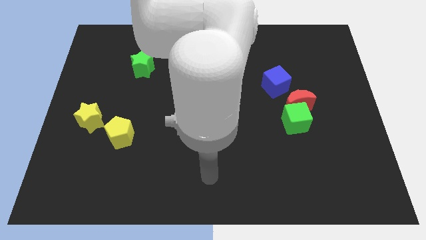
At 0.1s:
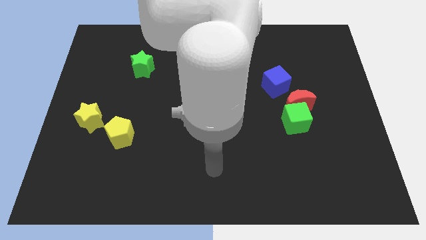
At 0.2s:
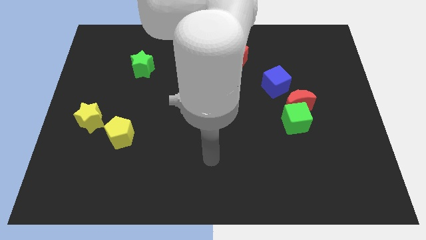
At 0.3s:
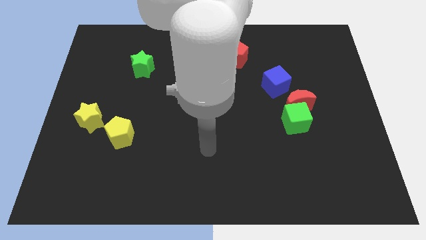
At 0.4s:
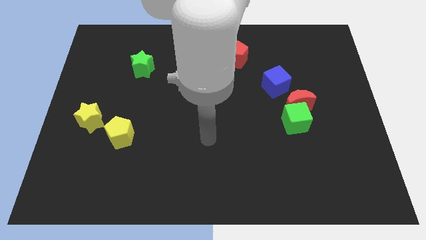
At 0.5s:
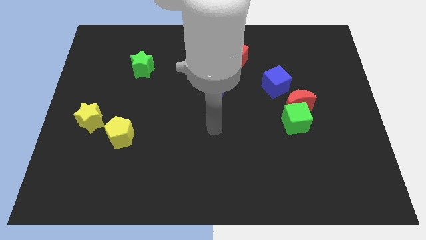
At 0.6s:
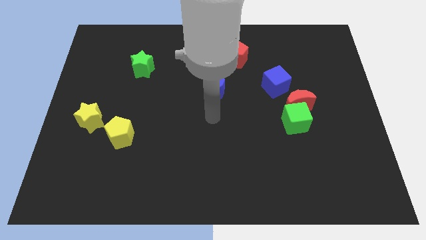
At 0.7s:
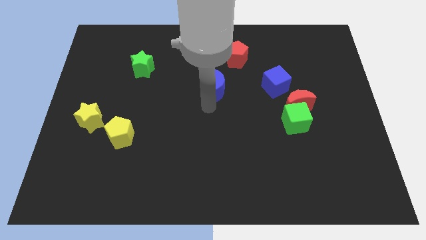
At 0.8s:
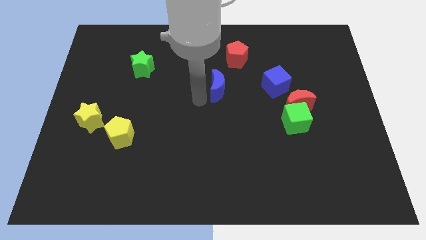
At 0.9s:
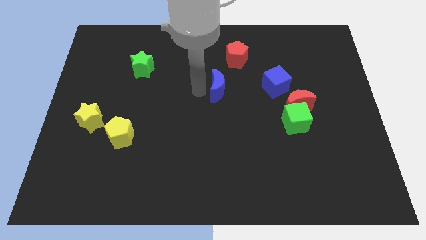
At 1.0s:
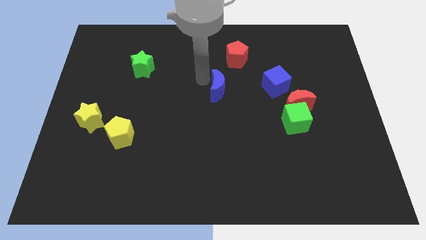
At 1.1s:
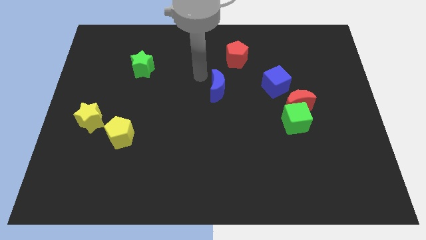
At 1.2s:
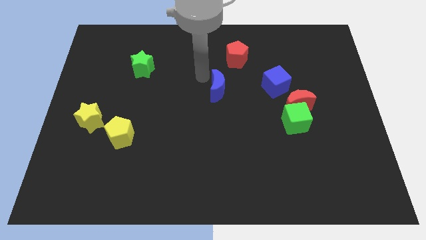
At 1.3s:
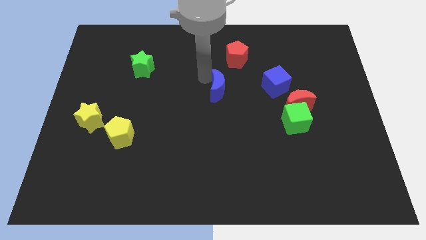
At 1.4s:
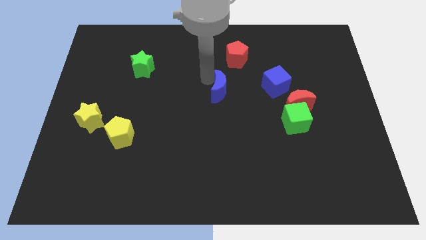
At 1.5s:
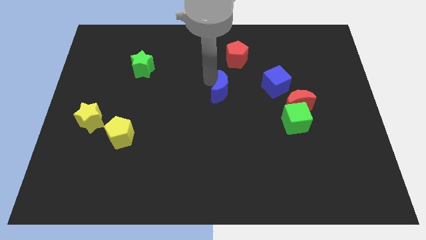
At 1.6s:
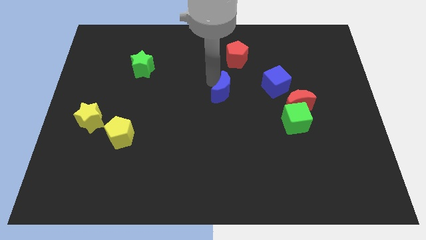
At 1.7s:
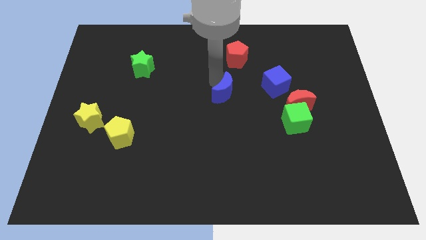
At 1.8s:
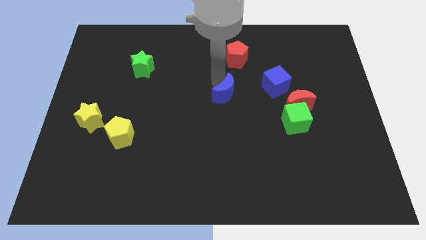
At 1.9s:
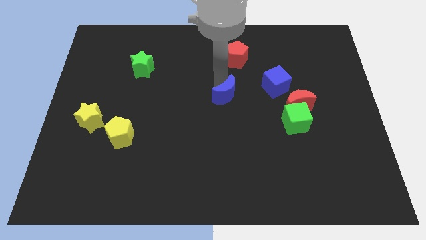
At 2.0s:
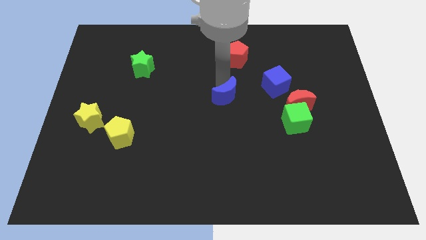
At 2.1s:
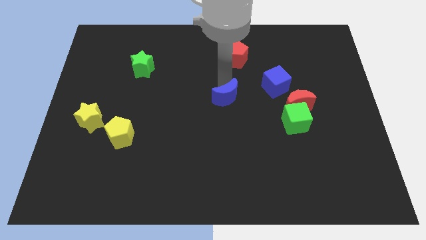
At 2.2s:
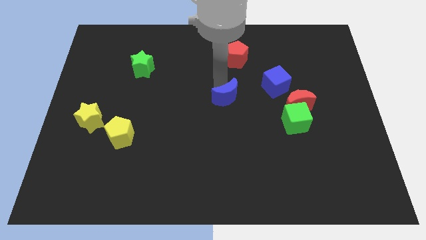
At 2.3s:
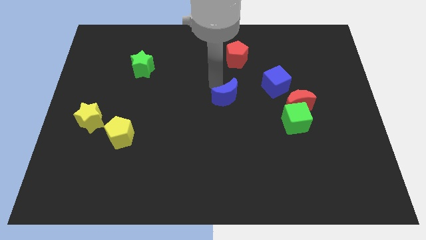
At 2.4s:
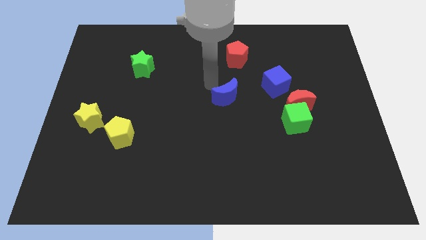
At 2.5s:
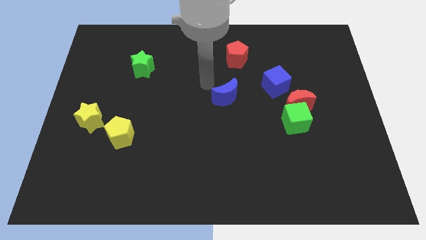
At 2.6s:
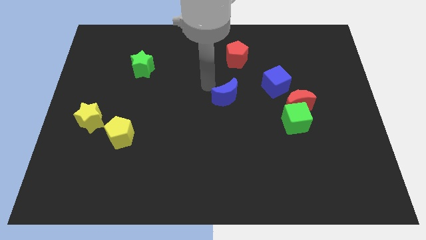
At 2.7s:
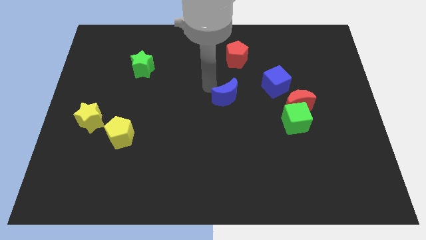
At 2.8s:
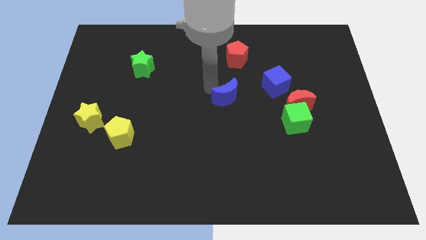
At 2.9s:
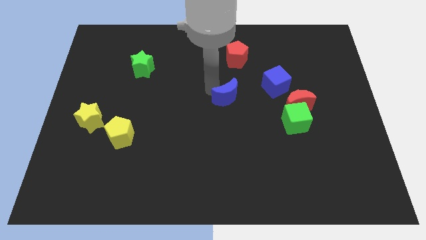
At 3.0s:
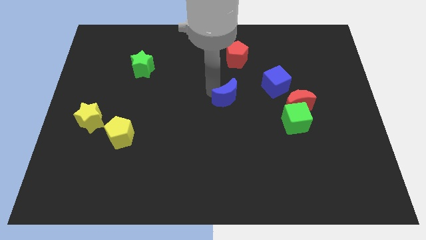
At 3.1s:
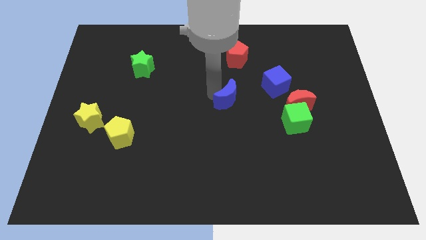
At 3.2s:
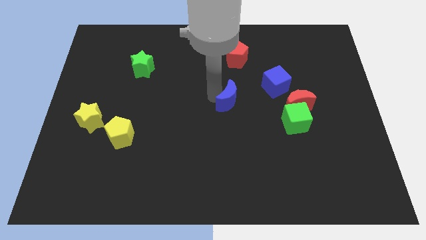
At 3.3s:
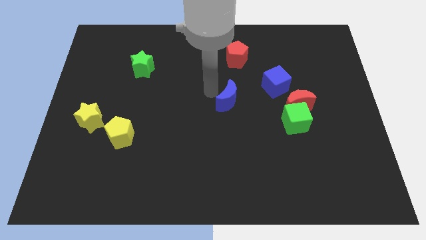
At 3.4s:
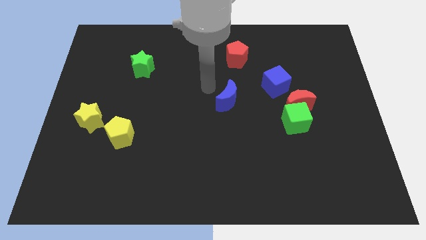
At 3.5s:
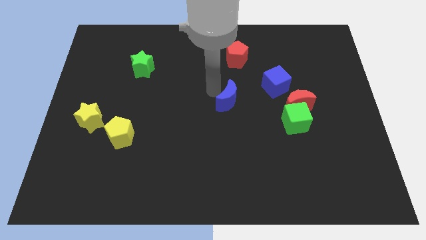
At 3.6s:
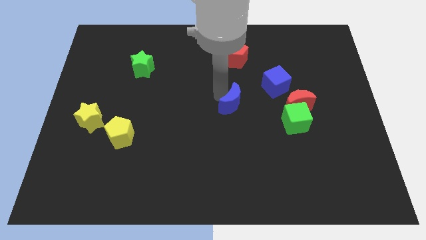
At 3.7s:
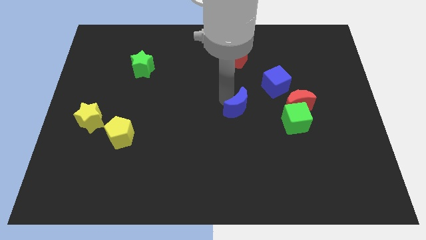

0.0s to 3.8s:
slide the blue moon a little downwards and to the right diagonally

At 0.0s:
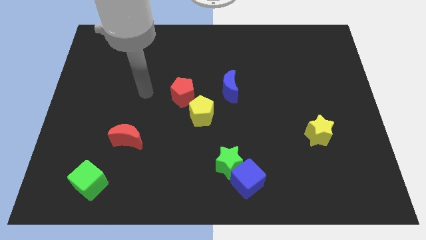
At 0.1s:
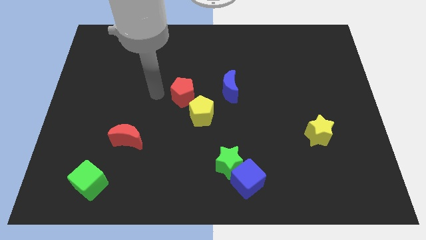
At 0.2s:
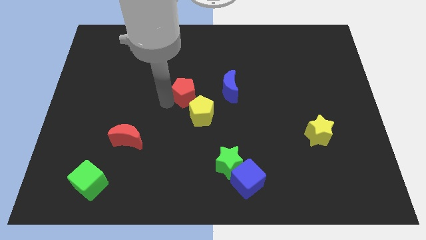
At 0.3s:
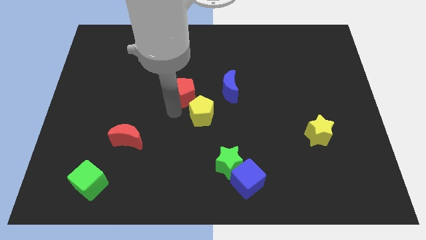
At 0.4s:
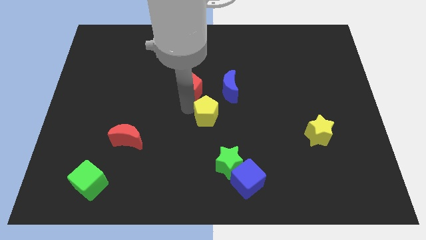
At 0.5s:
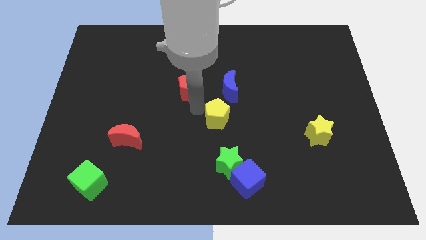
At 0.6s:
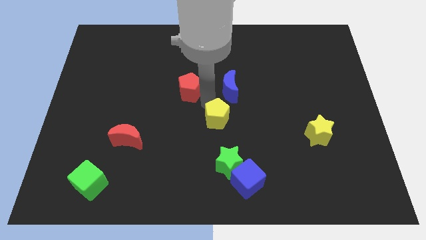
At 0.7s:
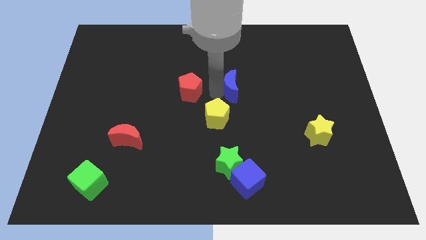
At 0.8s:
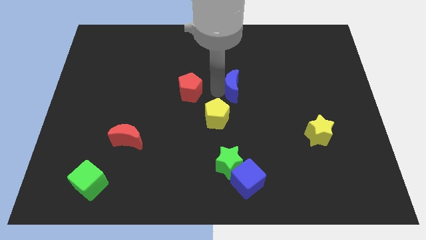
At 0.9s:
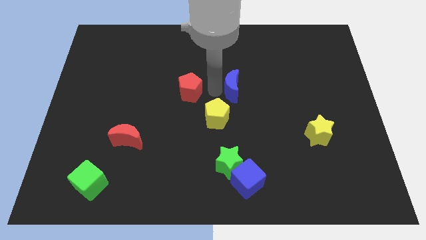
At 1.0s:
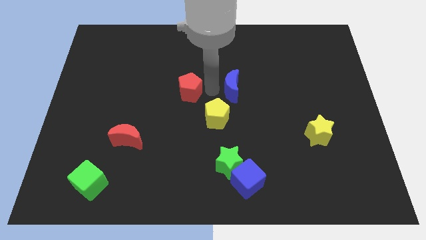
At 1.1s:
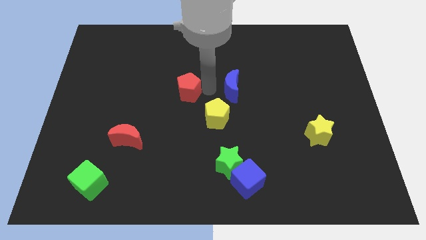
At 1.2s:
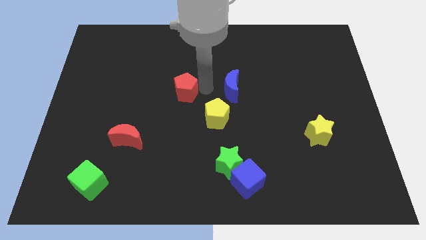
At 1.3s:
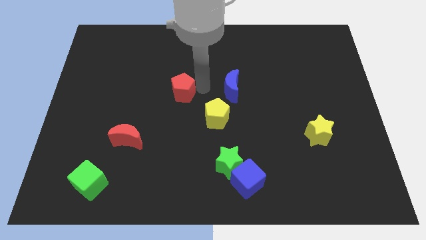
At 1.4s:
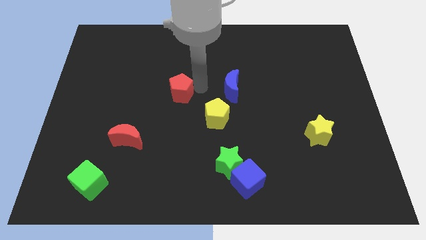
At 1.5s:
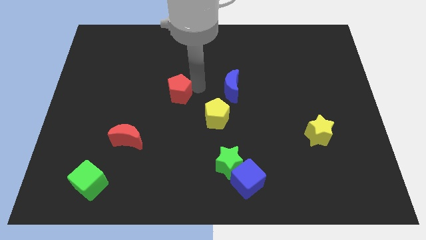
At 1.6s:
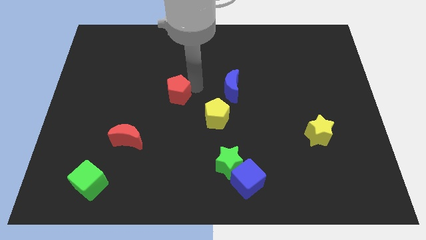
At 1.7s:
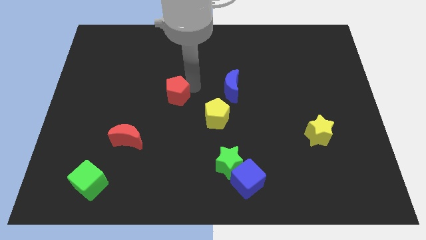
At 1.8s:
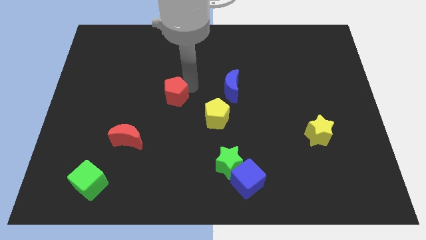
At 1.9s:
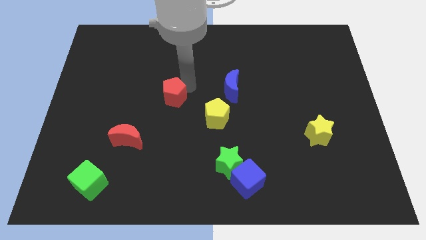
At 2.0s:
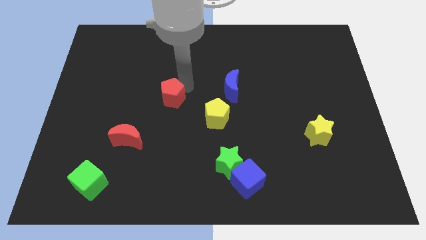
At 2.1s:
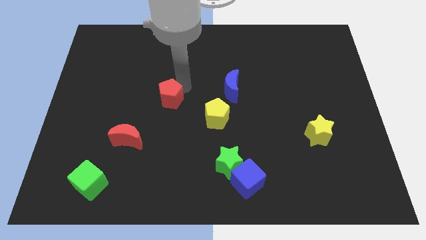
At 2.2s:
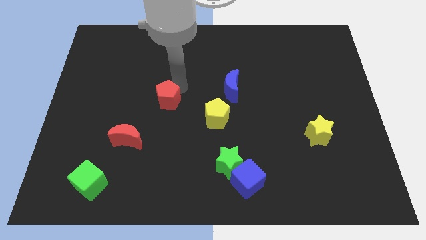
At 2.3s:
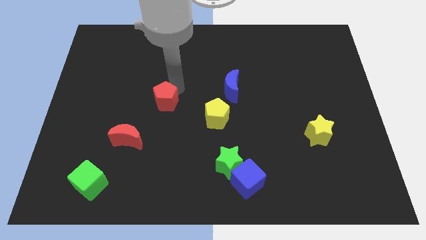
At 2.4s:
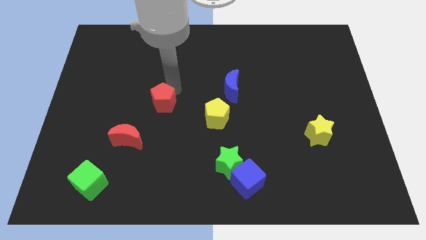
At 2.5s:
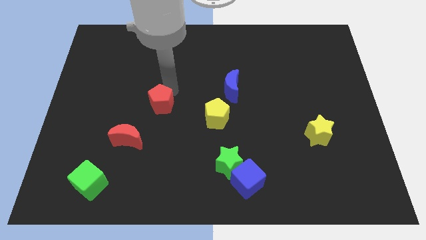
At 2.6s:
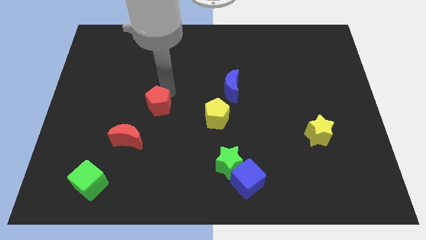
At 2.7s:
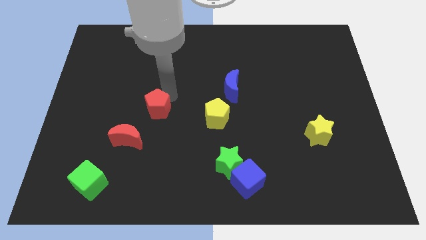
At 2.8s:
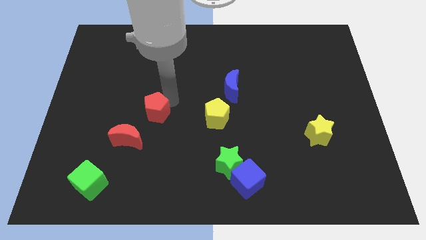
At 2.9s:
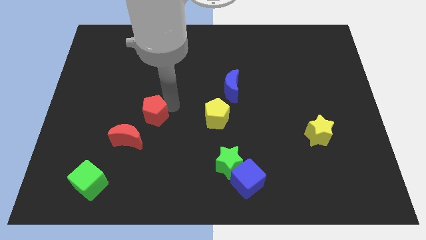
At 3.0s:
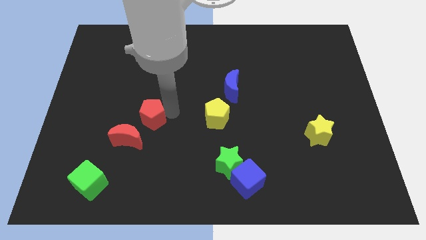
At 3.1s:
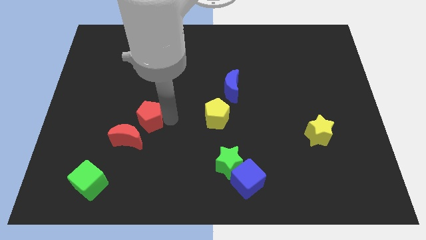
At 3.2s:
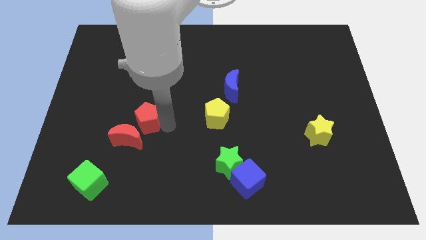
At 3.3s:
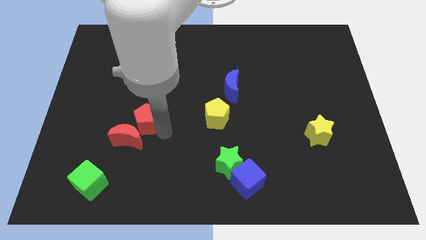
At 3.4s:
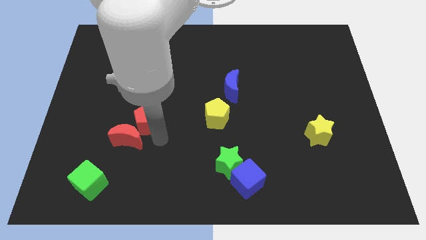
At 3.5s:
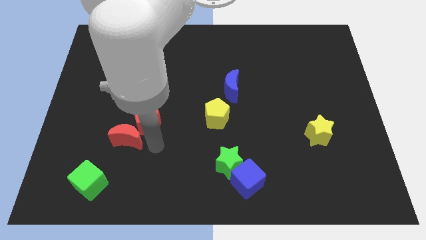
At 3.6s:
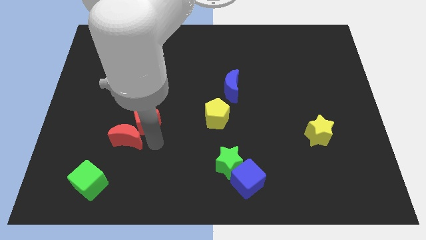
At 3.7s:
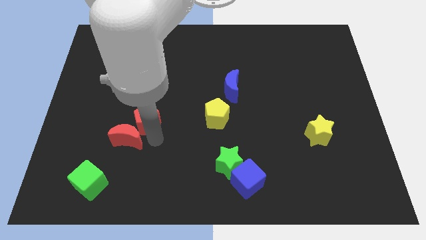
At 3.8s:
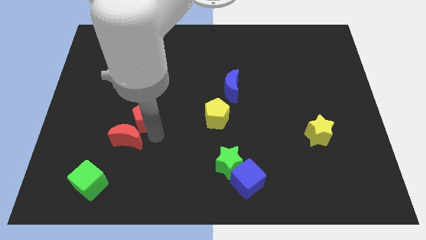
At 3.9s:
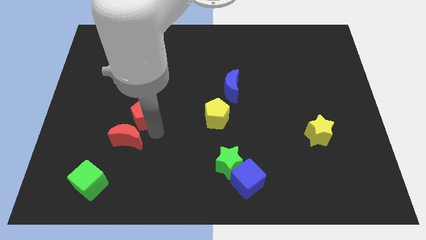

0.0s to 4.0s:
move the red pentagon a little bit to the left
